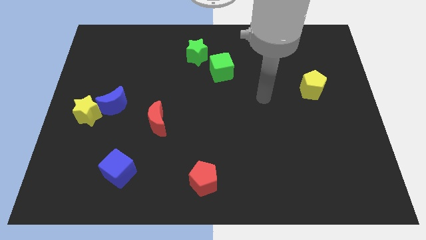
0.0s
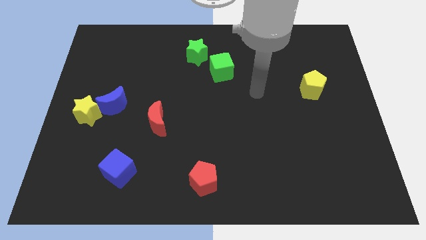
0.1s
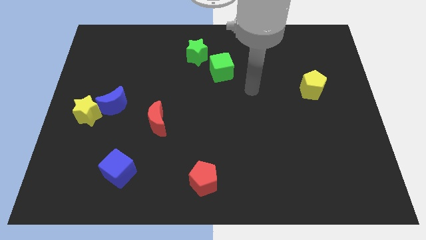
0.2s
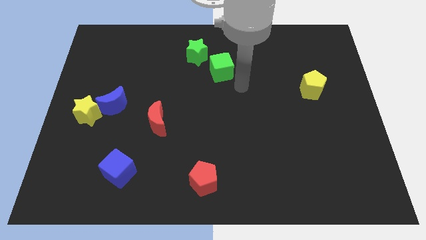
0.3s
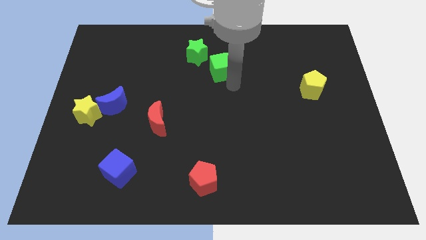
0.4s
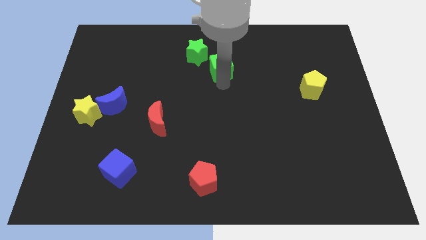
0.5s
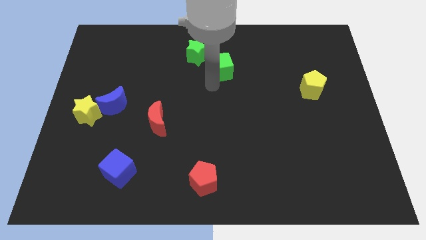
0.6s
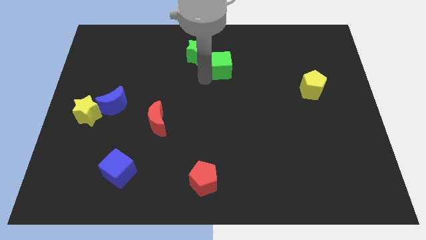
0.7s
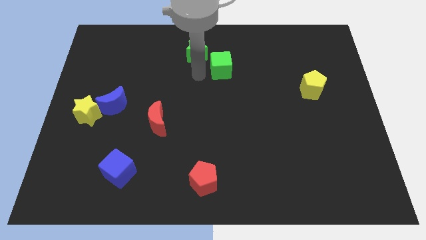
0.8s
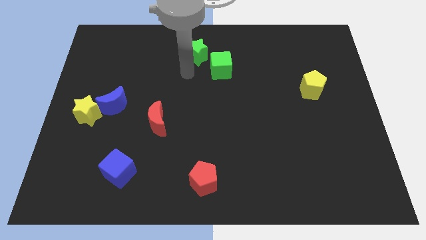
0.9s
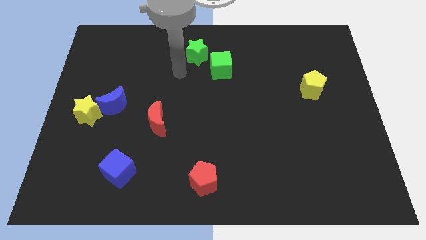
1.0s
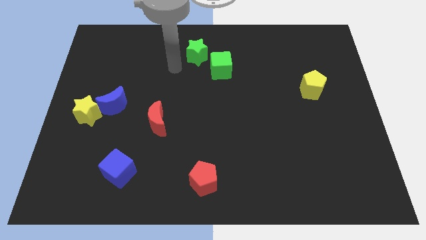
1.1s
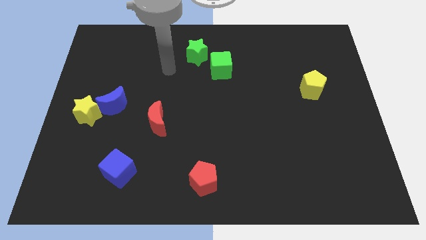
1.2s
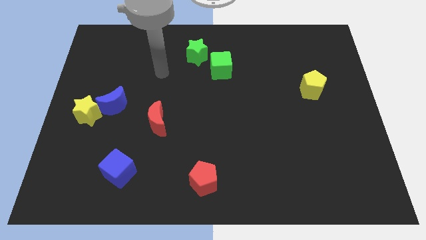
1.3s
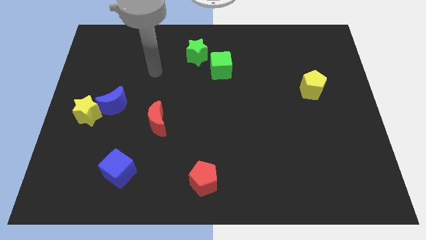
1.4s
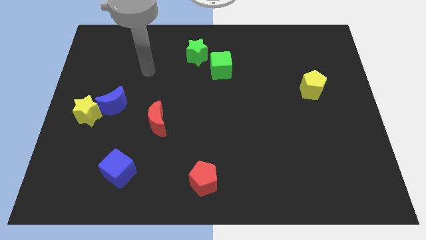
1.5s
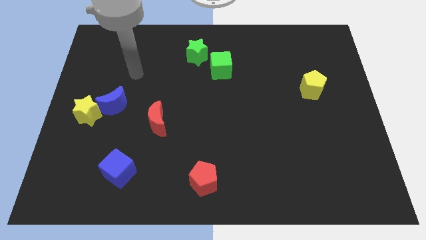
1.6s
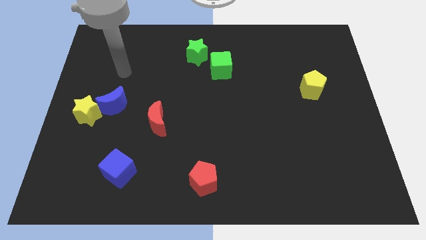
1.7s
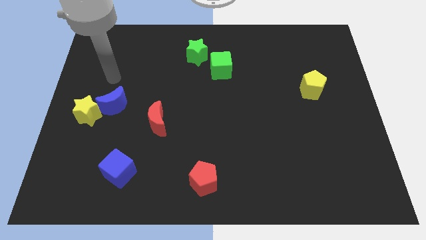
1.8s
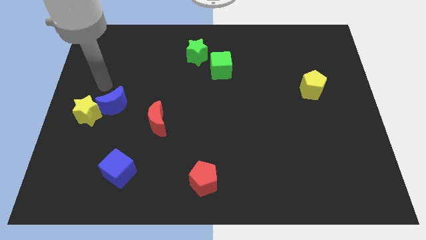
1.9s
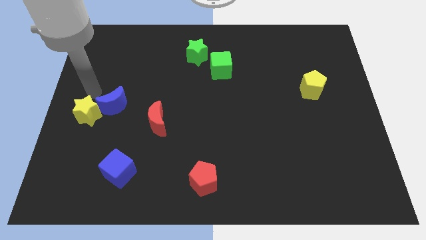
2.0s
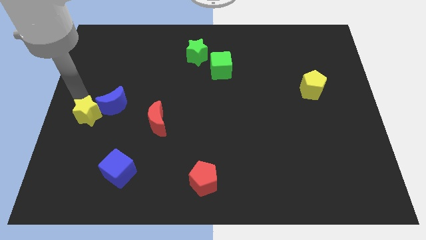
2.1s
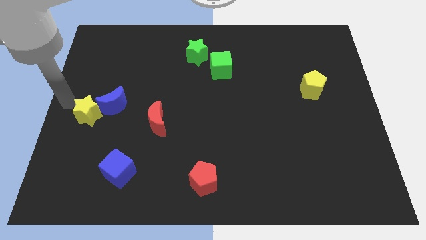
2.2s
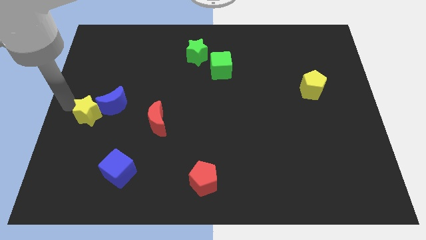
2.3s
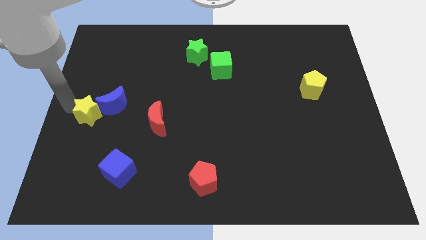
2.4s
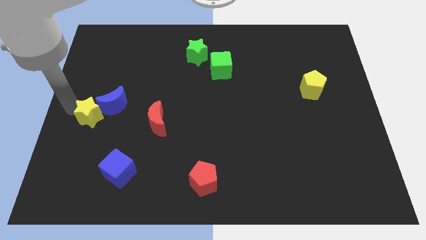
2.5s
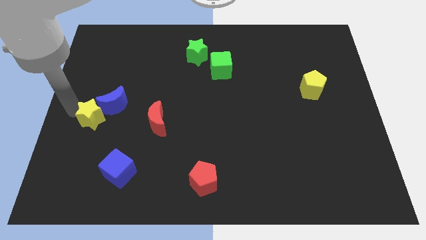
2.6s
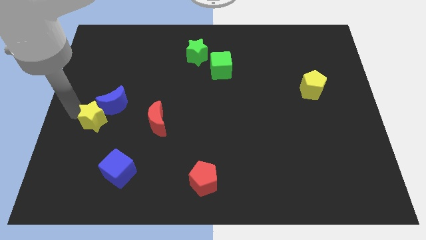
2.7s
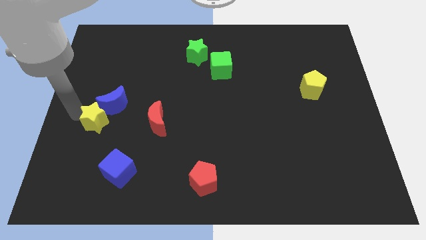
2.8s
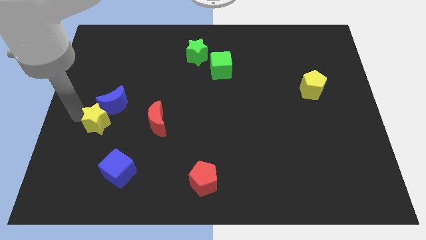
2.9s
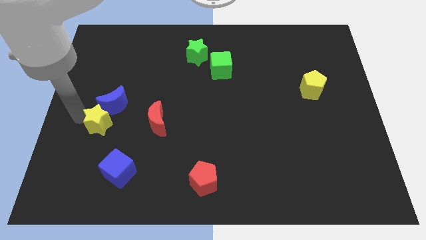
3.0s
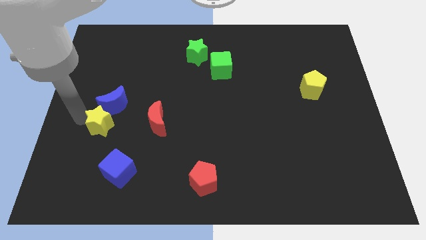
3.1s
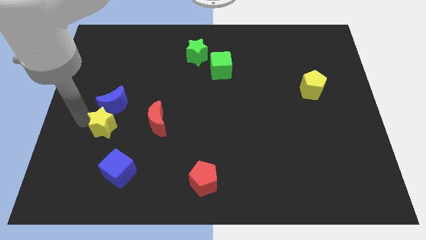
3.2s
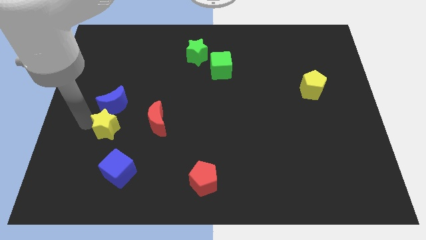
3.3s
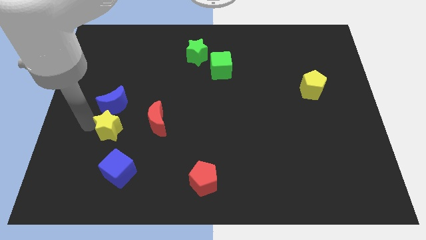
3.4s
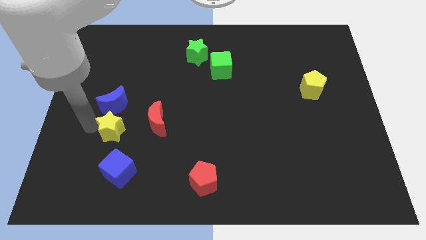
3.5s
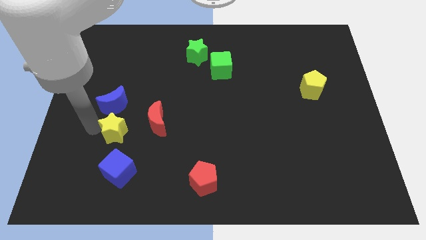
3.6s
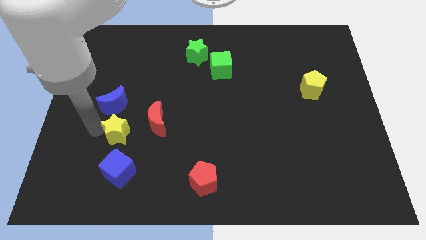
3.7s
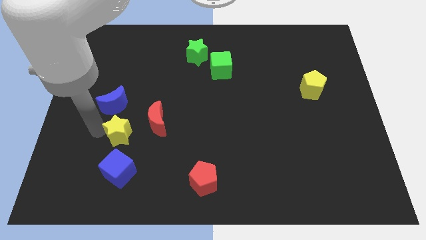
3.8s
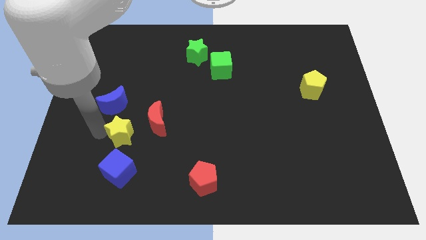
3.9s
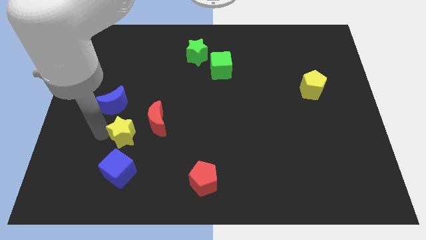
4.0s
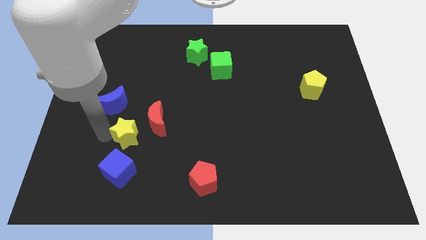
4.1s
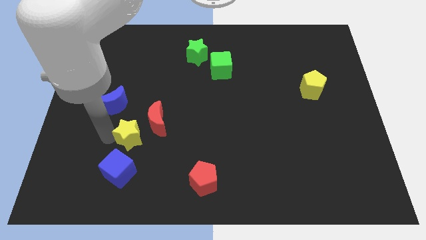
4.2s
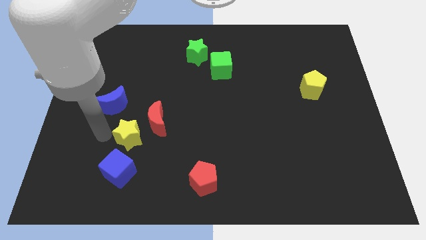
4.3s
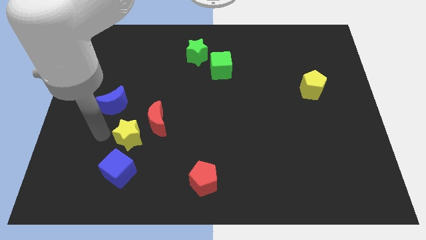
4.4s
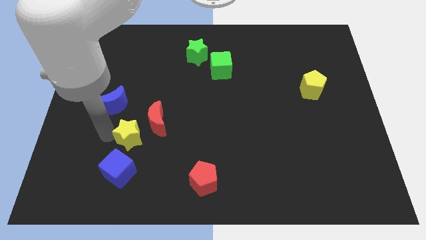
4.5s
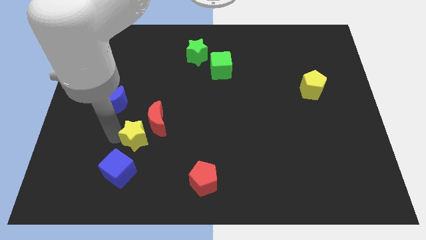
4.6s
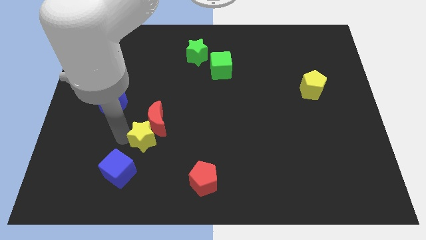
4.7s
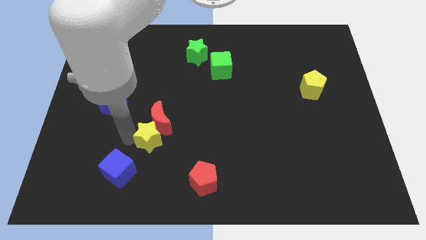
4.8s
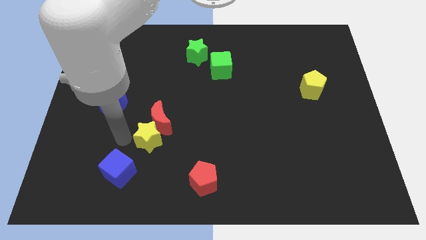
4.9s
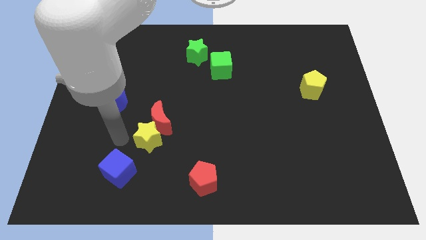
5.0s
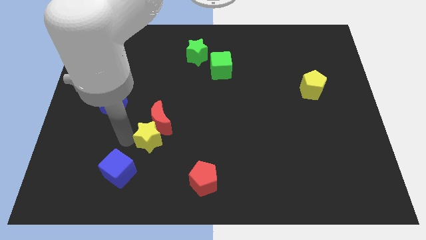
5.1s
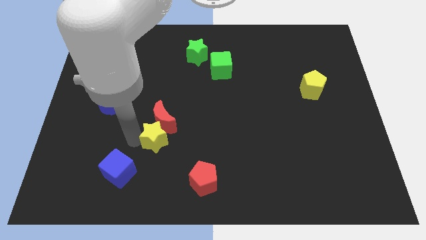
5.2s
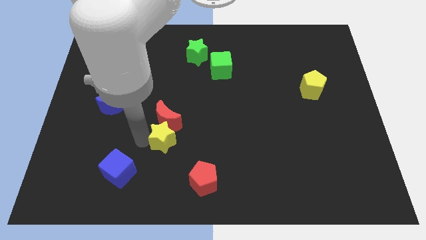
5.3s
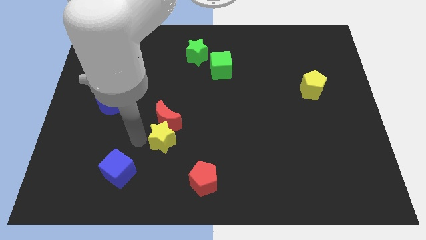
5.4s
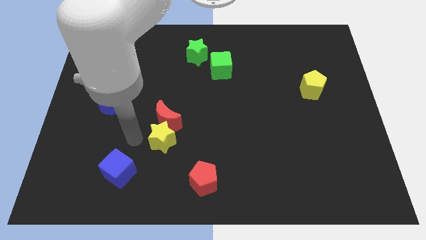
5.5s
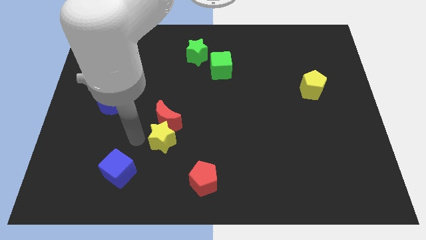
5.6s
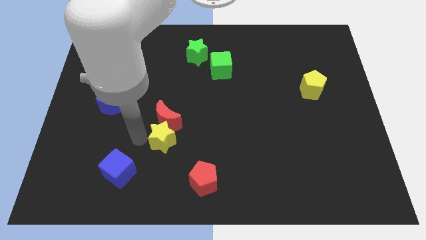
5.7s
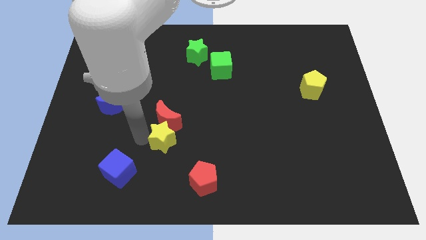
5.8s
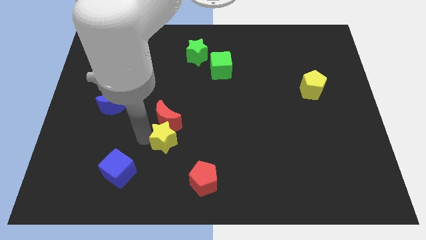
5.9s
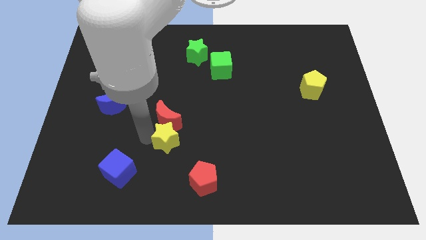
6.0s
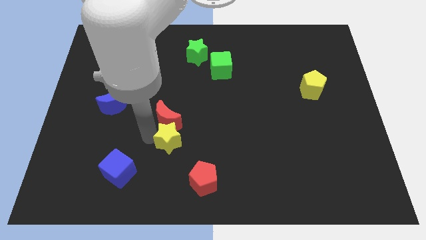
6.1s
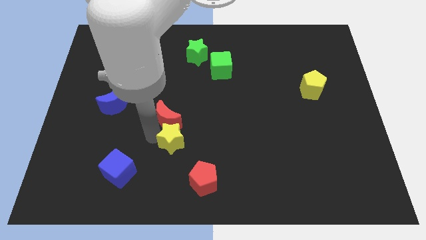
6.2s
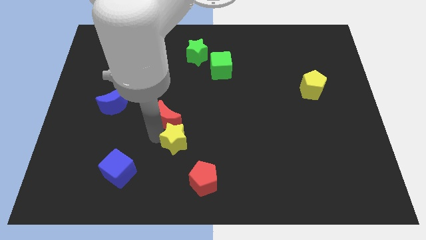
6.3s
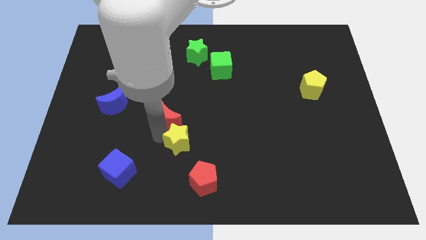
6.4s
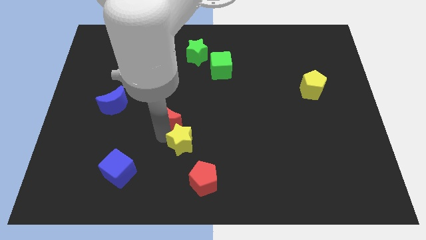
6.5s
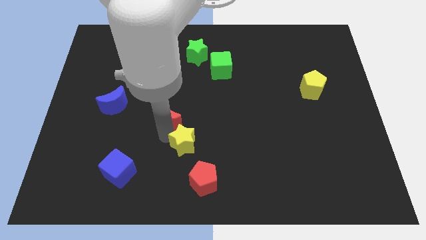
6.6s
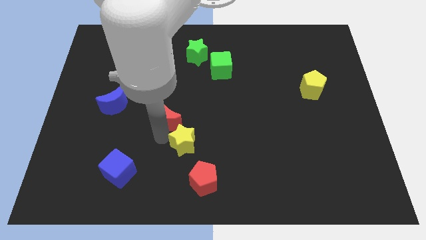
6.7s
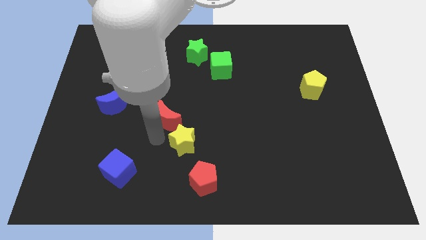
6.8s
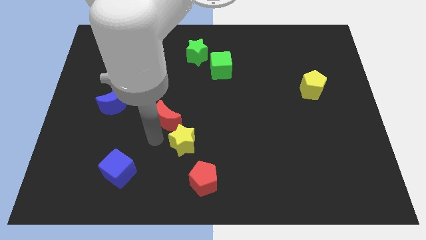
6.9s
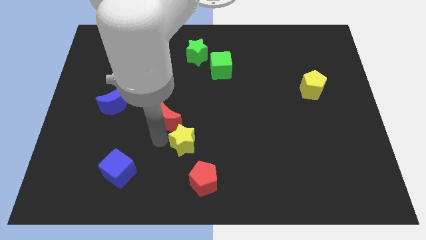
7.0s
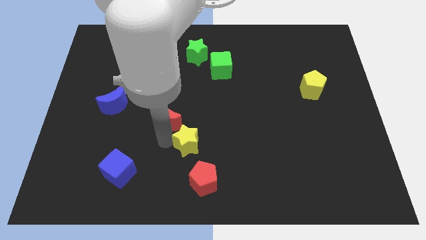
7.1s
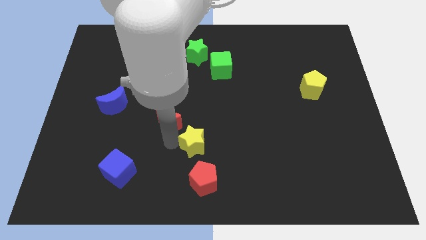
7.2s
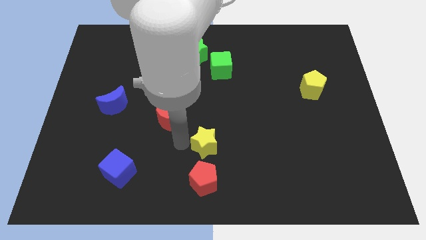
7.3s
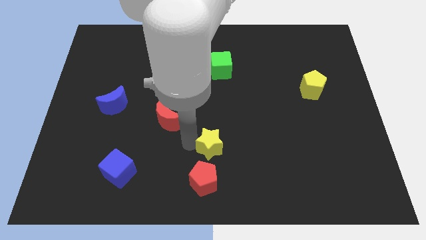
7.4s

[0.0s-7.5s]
put the yellow star diagonally up and to the right of the red pentagon
